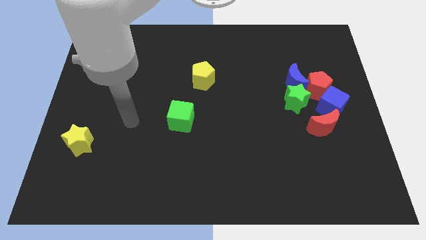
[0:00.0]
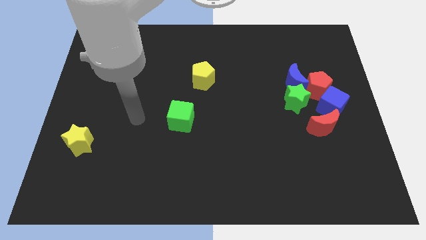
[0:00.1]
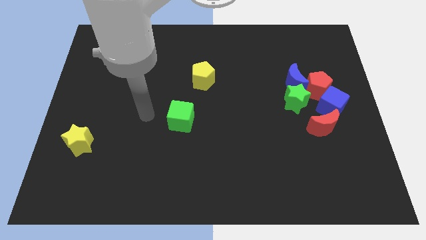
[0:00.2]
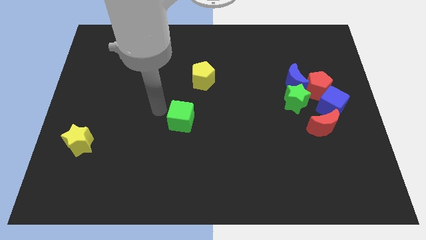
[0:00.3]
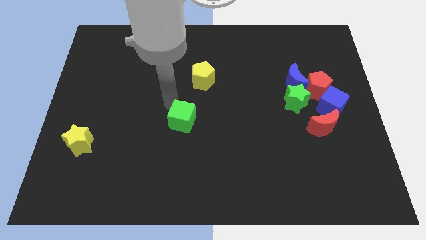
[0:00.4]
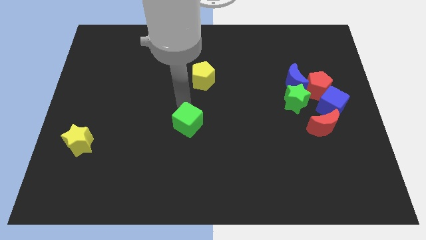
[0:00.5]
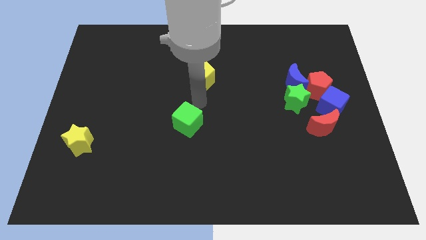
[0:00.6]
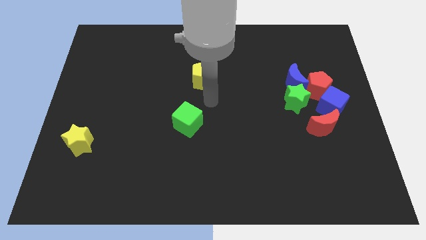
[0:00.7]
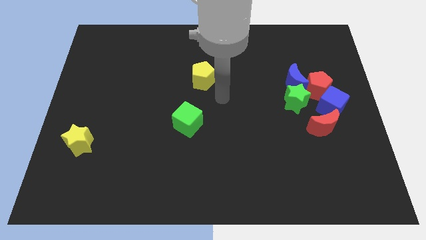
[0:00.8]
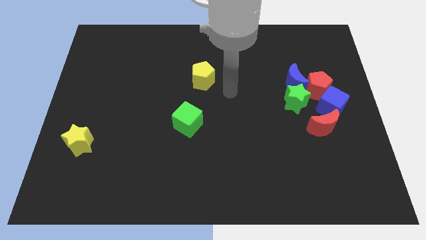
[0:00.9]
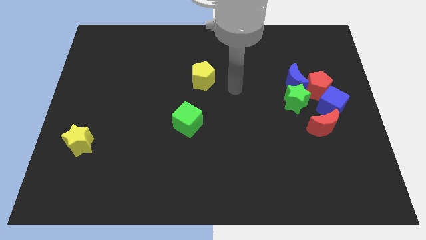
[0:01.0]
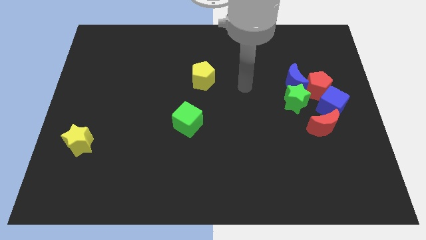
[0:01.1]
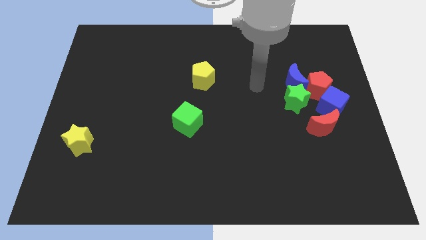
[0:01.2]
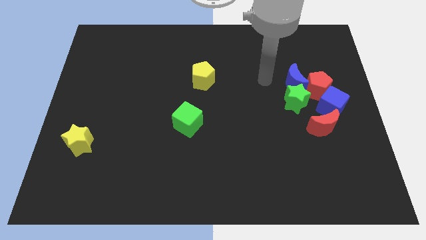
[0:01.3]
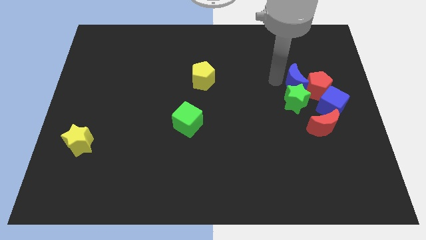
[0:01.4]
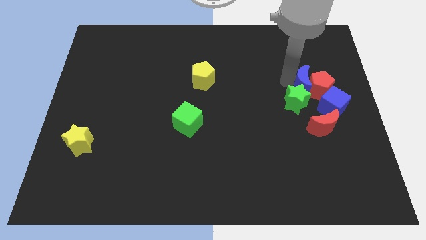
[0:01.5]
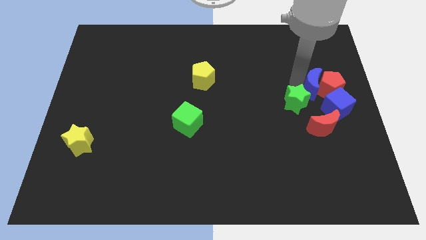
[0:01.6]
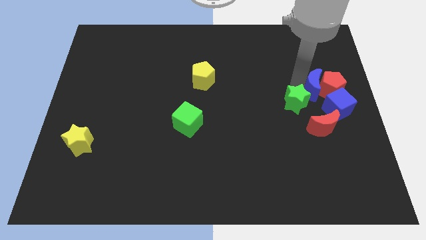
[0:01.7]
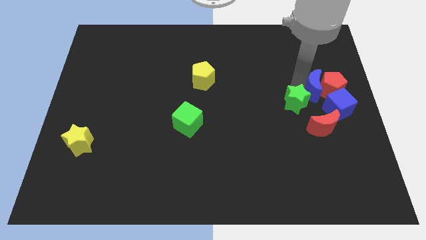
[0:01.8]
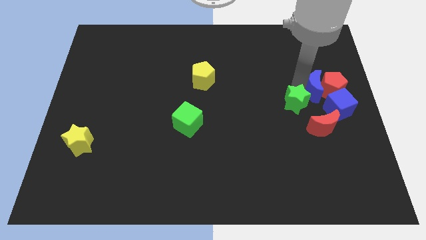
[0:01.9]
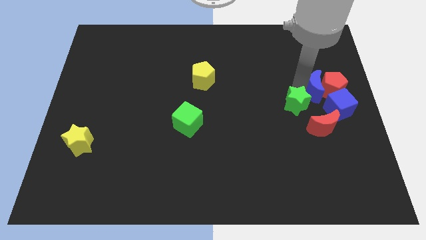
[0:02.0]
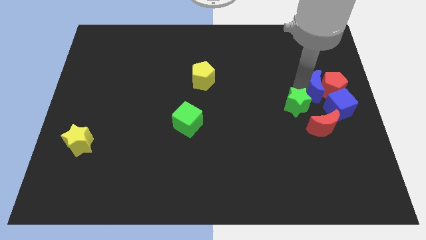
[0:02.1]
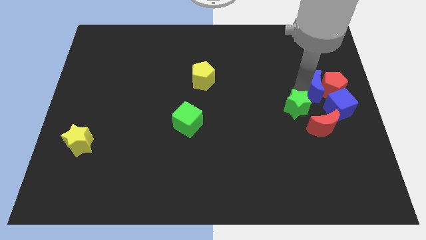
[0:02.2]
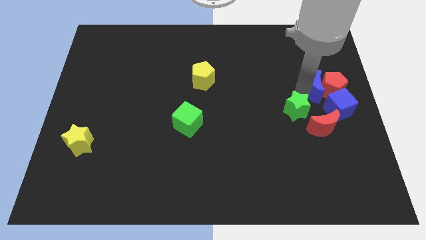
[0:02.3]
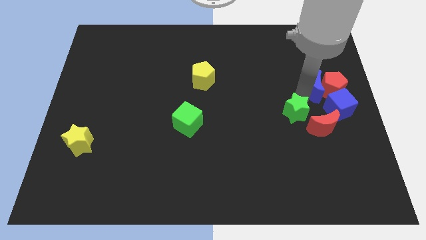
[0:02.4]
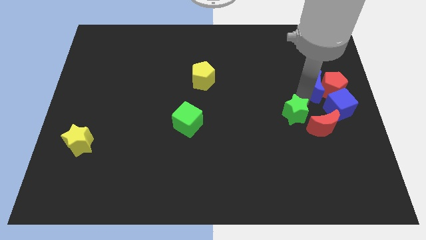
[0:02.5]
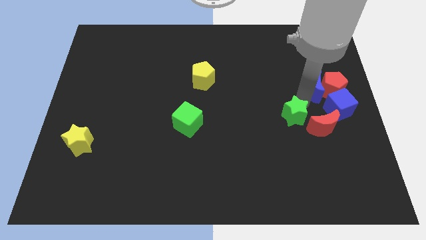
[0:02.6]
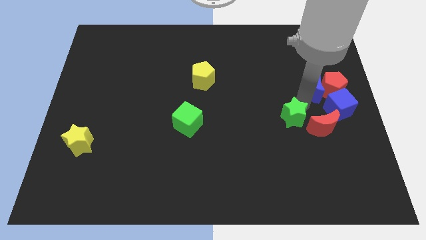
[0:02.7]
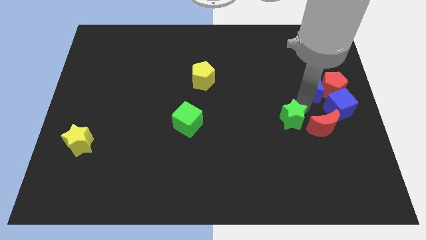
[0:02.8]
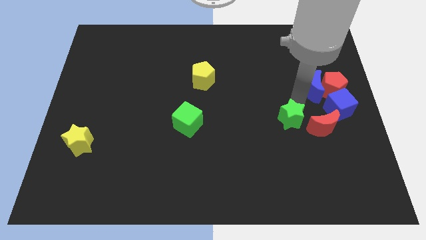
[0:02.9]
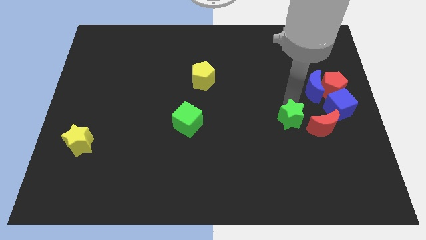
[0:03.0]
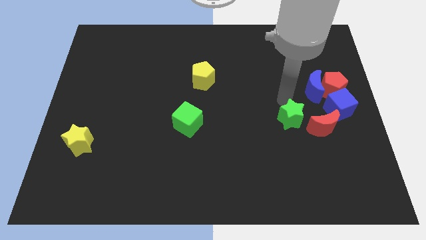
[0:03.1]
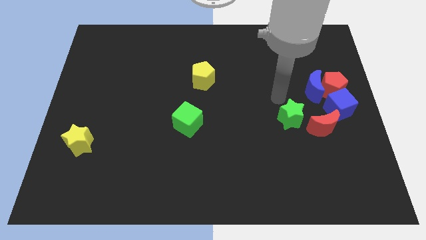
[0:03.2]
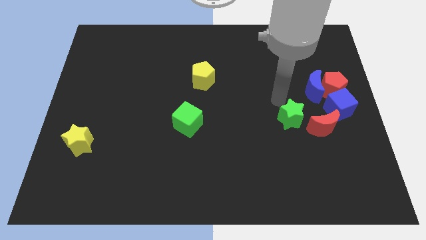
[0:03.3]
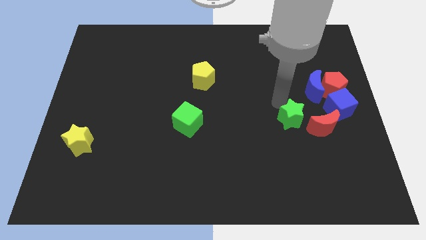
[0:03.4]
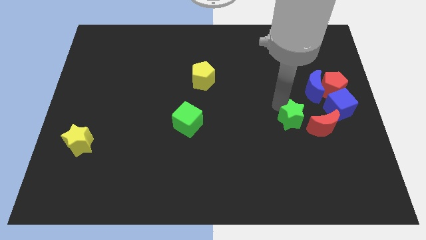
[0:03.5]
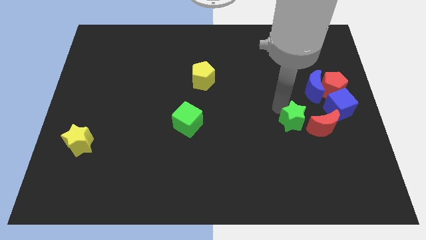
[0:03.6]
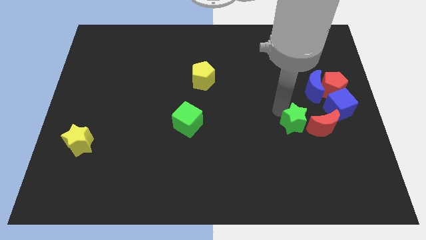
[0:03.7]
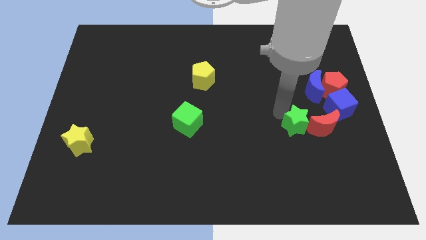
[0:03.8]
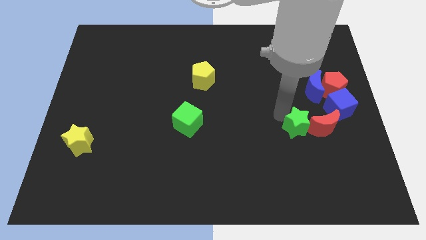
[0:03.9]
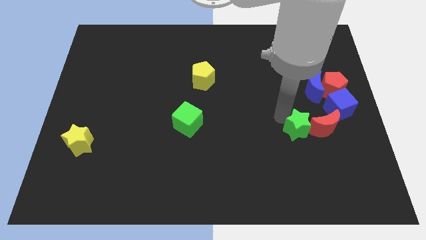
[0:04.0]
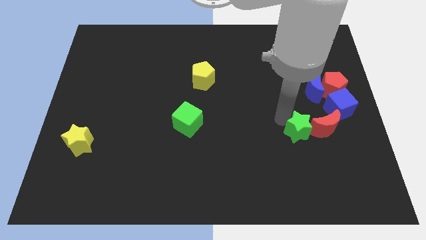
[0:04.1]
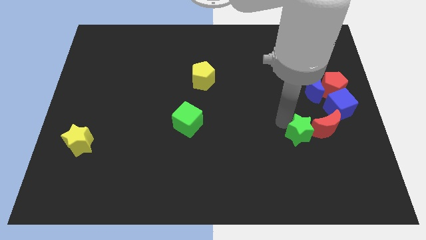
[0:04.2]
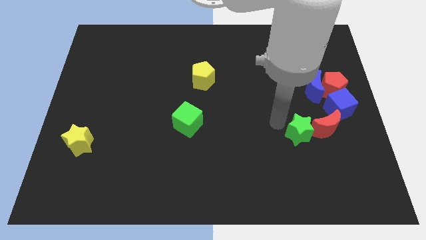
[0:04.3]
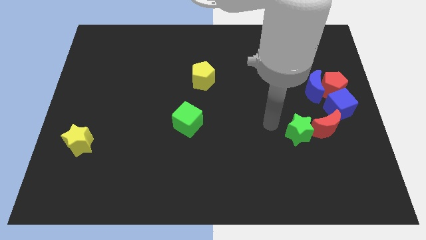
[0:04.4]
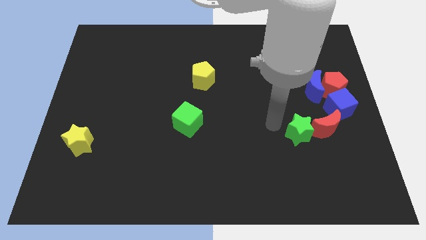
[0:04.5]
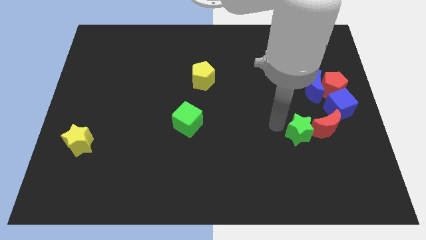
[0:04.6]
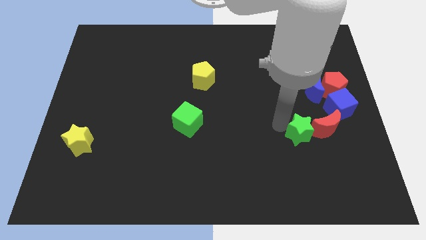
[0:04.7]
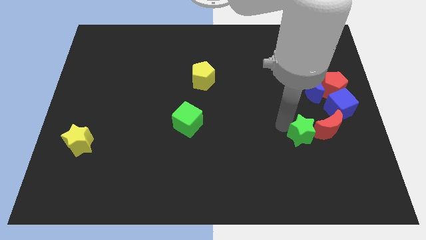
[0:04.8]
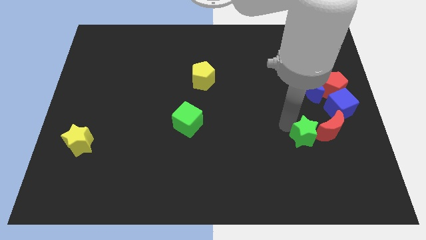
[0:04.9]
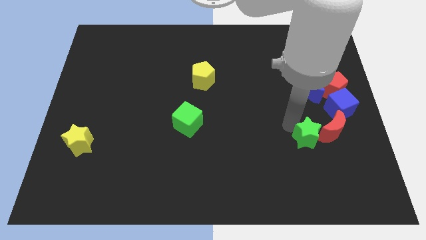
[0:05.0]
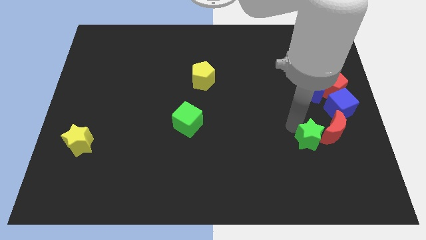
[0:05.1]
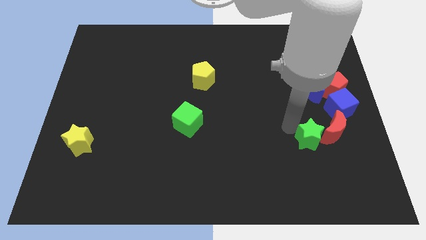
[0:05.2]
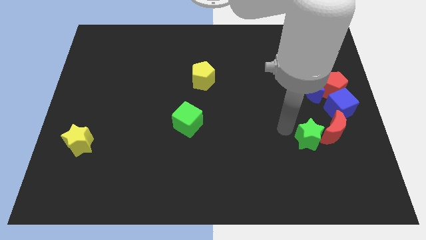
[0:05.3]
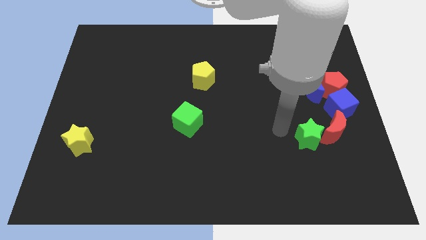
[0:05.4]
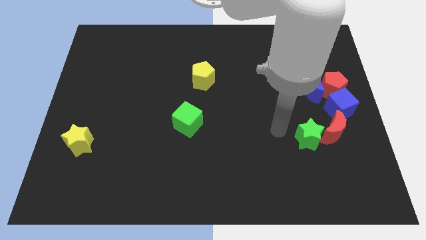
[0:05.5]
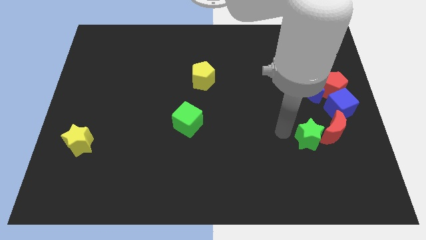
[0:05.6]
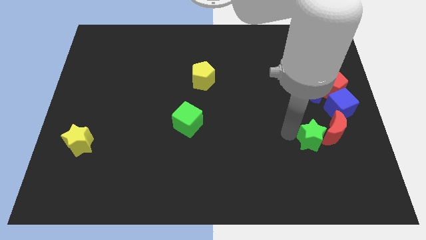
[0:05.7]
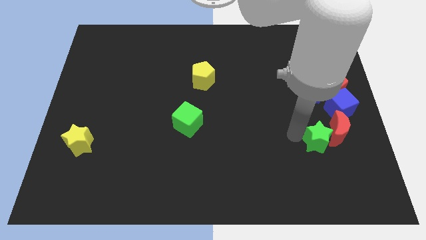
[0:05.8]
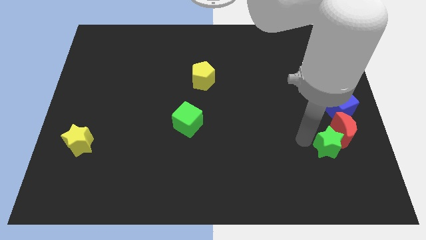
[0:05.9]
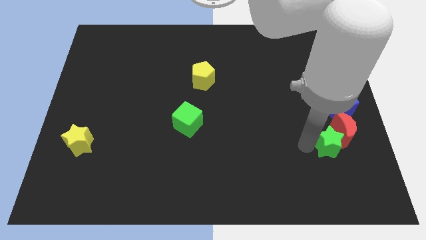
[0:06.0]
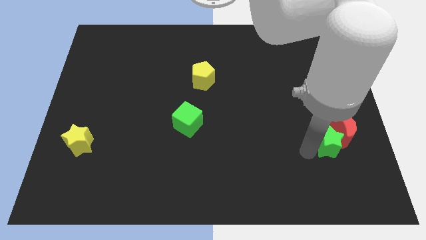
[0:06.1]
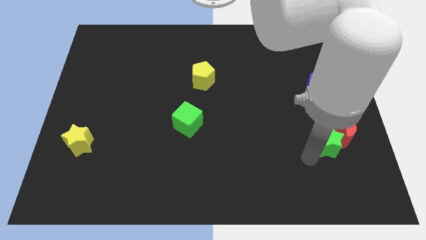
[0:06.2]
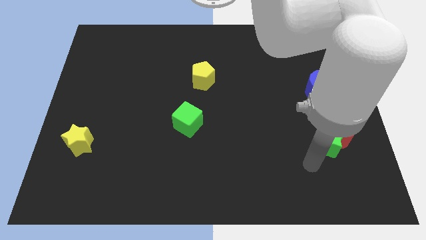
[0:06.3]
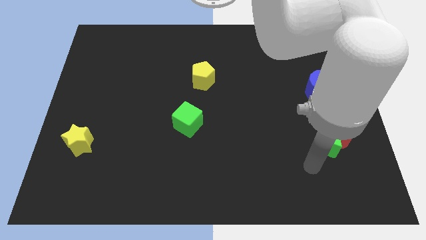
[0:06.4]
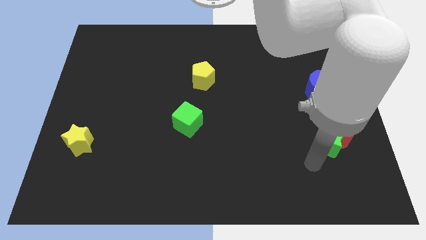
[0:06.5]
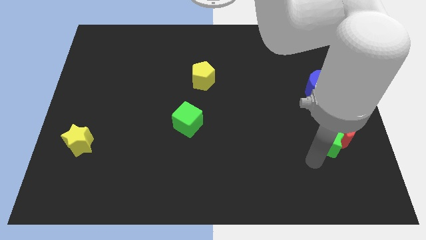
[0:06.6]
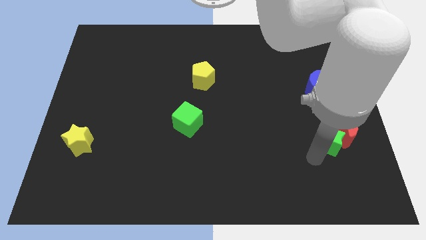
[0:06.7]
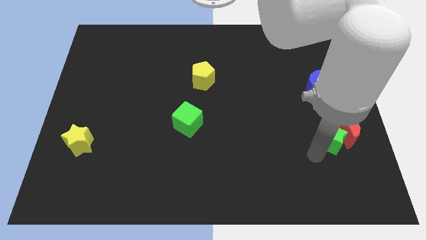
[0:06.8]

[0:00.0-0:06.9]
move the green star below the red pentagon
